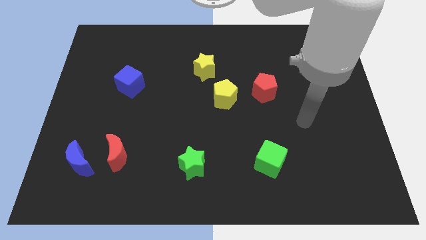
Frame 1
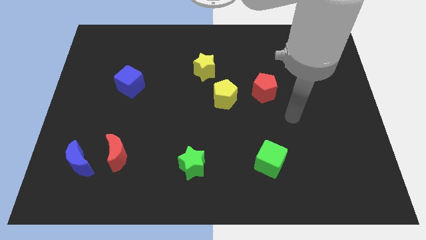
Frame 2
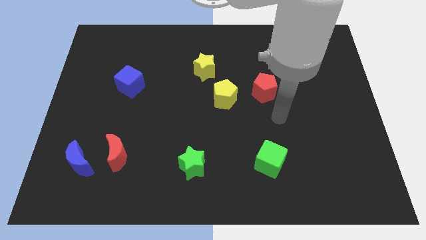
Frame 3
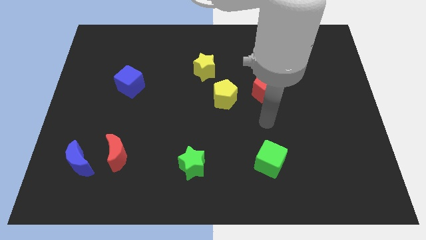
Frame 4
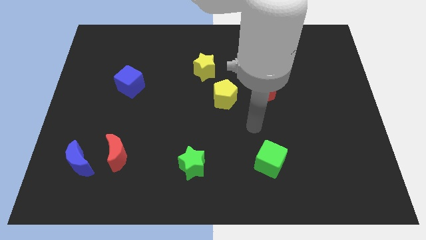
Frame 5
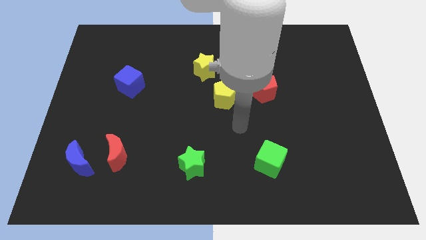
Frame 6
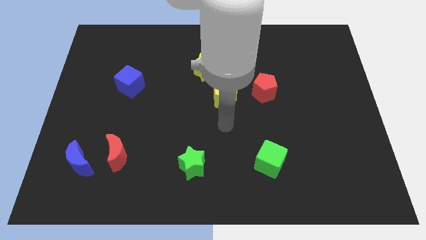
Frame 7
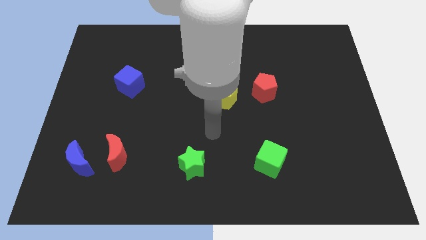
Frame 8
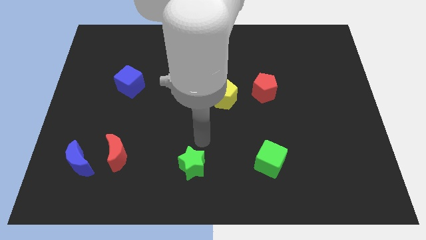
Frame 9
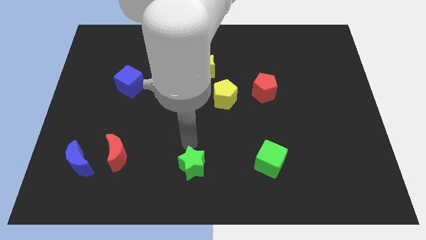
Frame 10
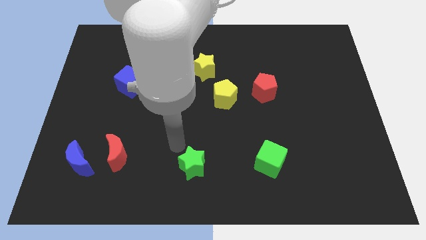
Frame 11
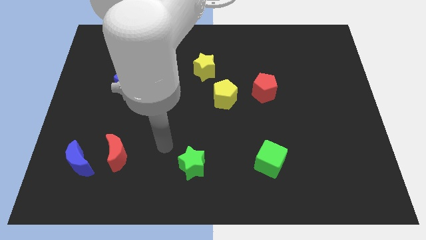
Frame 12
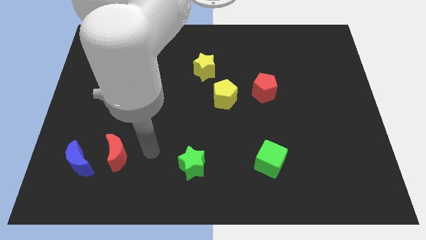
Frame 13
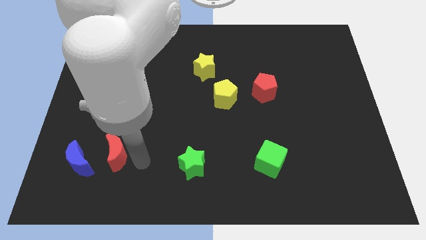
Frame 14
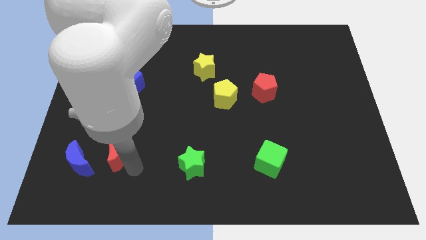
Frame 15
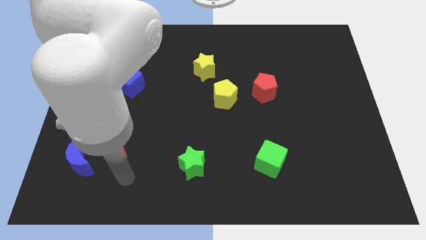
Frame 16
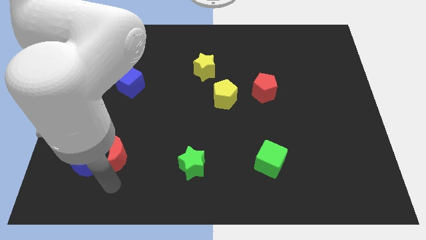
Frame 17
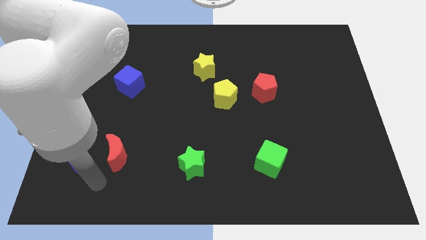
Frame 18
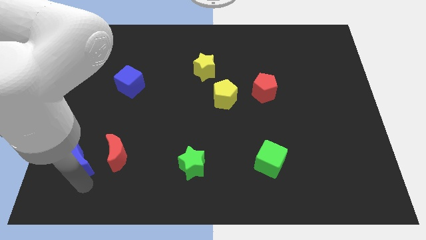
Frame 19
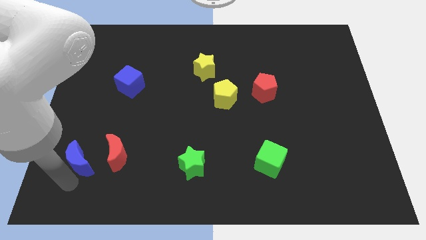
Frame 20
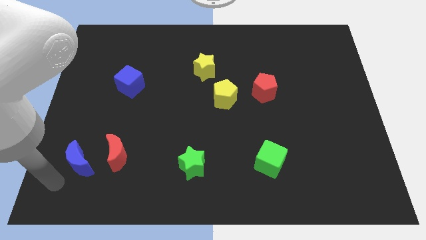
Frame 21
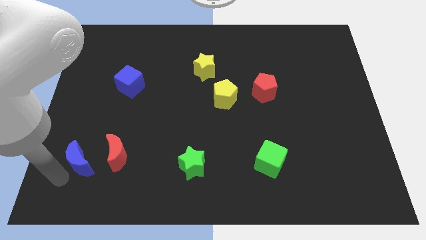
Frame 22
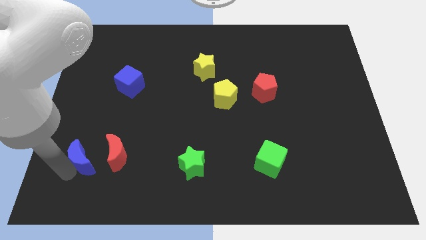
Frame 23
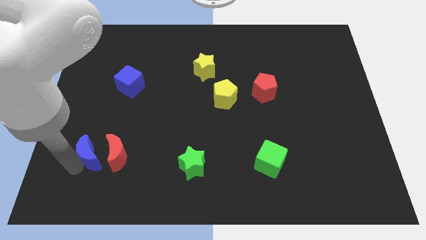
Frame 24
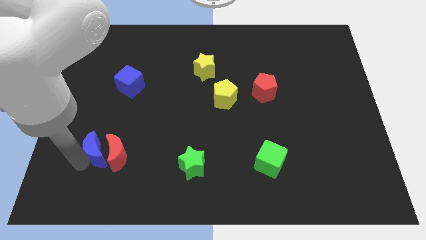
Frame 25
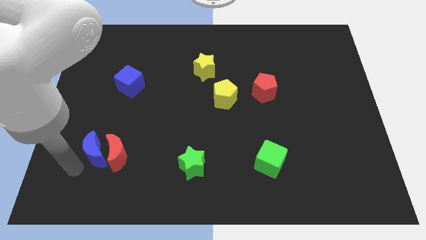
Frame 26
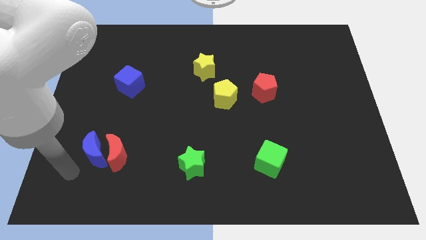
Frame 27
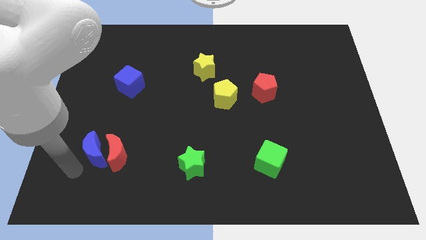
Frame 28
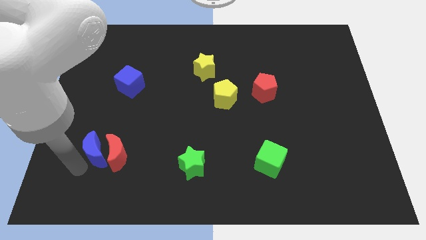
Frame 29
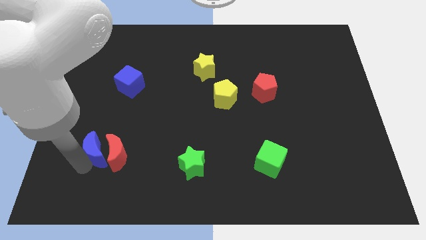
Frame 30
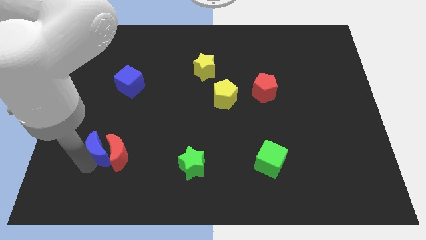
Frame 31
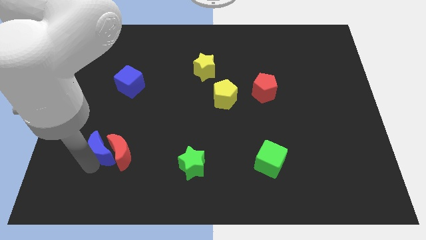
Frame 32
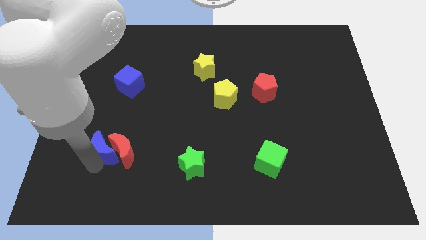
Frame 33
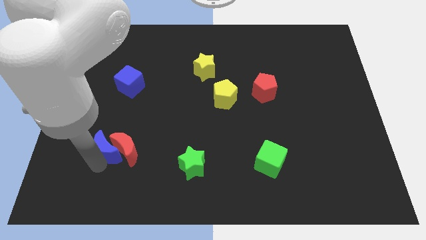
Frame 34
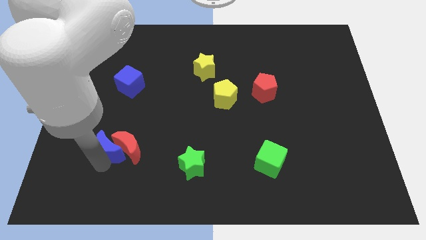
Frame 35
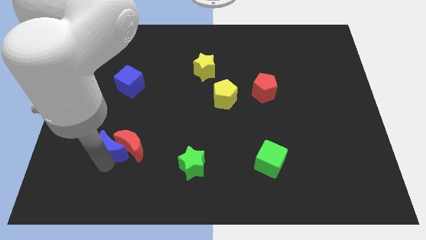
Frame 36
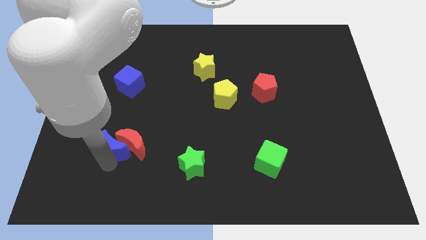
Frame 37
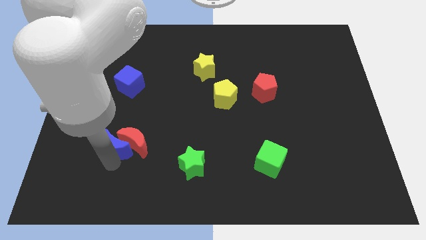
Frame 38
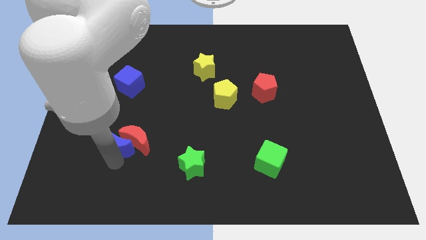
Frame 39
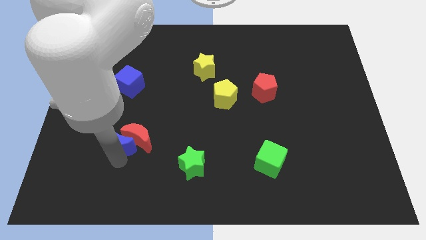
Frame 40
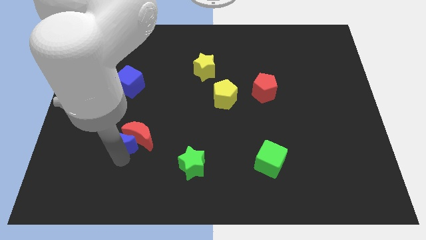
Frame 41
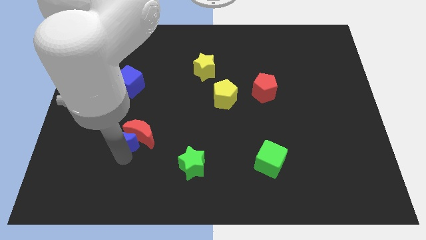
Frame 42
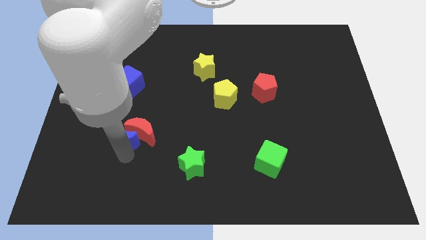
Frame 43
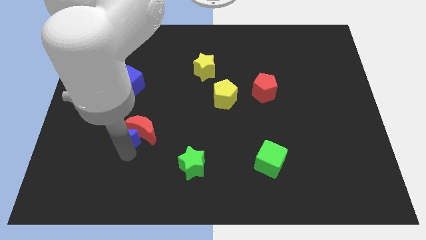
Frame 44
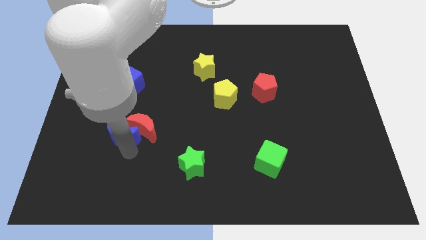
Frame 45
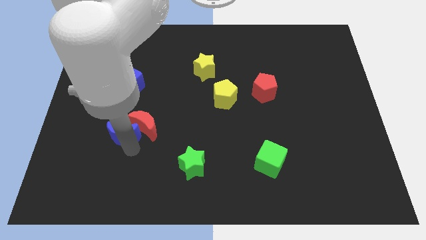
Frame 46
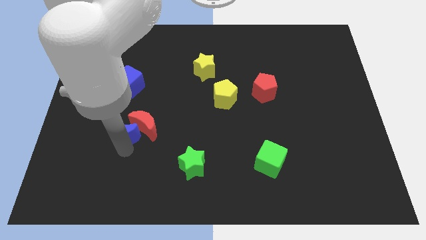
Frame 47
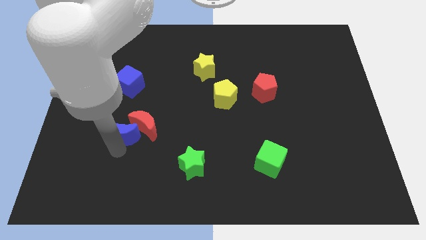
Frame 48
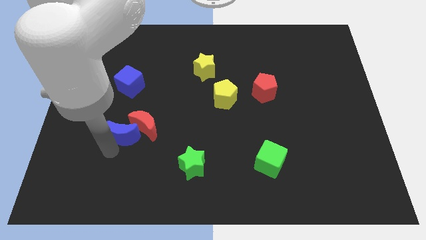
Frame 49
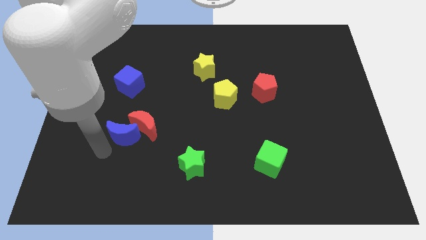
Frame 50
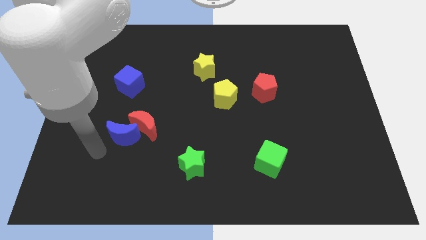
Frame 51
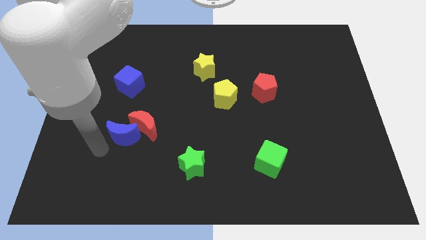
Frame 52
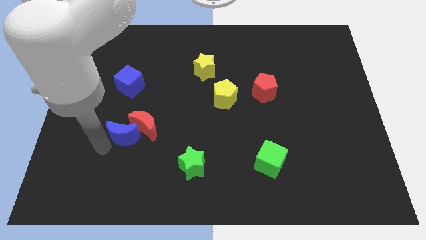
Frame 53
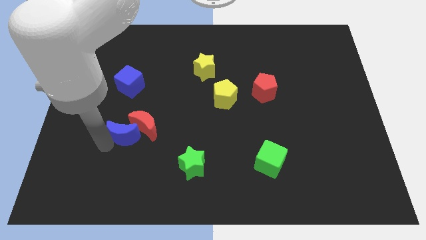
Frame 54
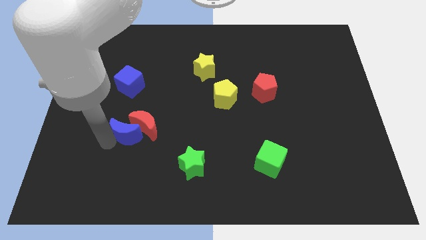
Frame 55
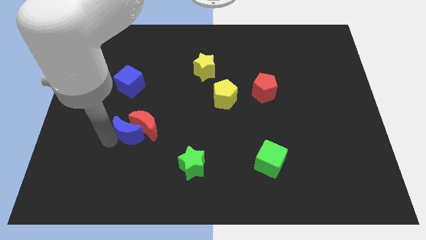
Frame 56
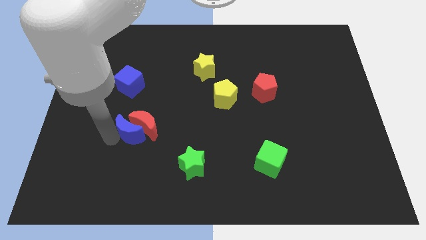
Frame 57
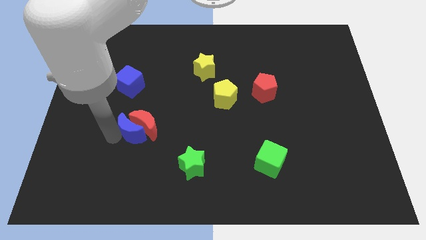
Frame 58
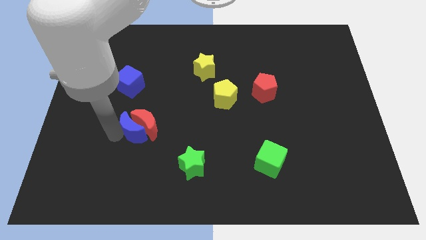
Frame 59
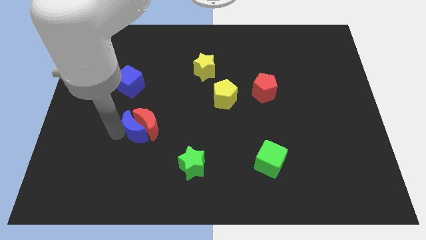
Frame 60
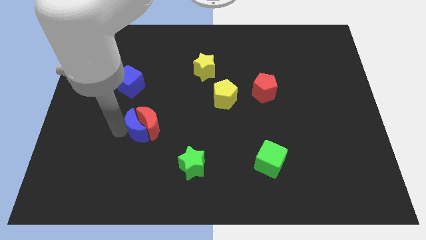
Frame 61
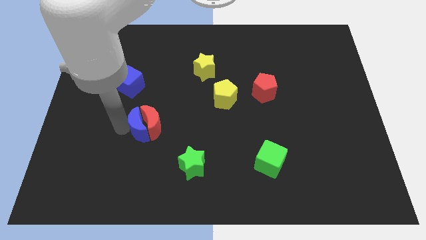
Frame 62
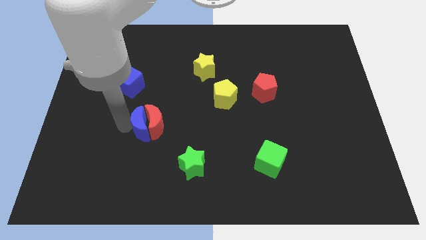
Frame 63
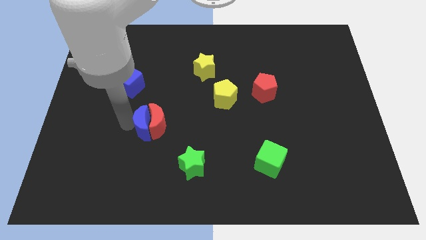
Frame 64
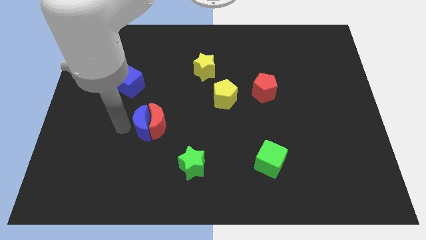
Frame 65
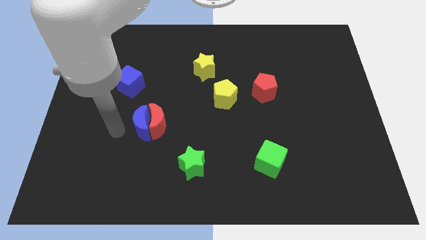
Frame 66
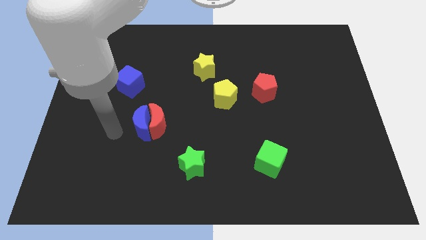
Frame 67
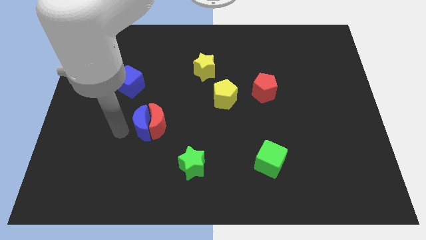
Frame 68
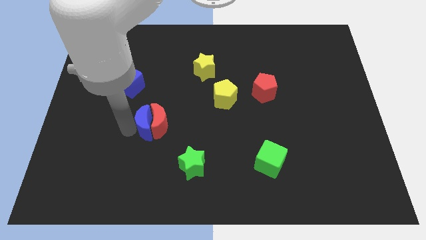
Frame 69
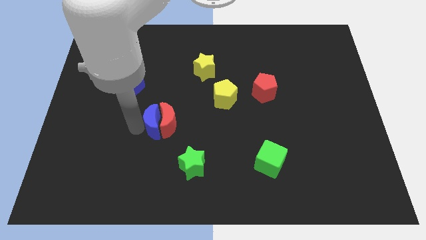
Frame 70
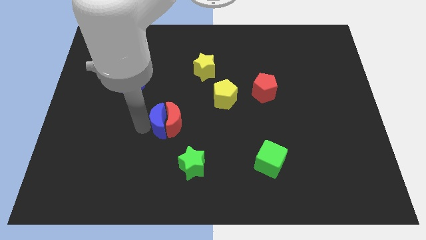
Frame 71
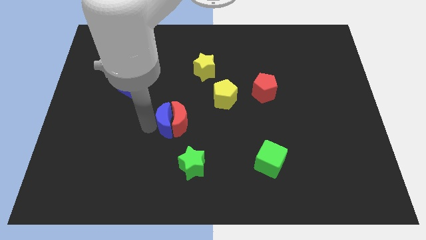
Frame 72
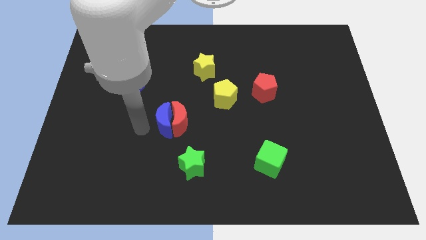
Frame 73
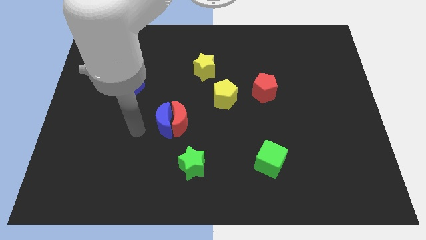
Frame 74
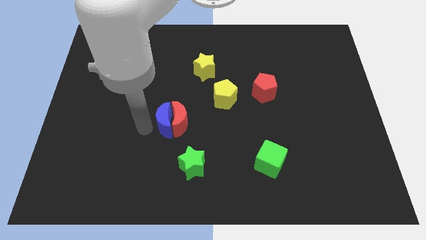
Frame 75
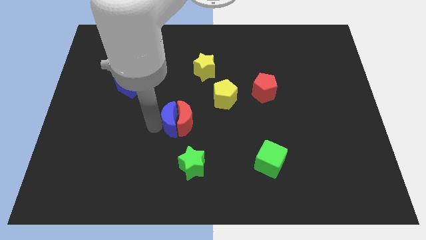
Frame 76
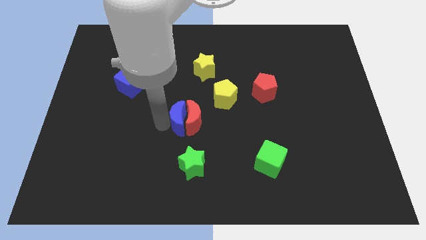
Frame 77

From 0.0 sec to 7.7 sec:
slide the blue moon to the bottom left of the yellow pentagon
